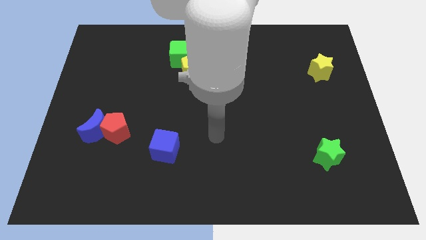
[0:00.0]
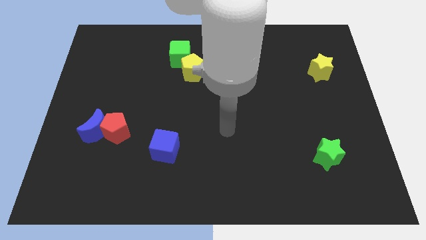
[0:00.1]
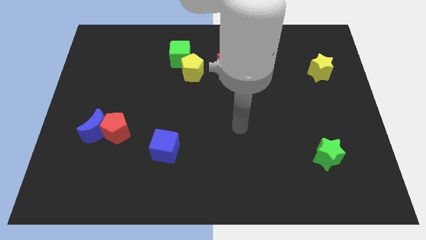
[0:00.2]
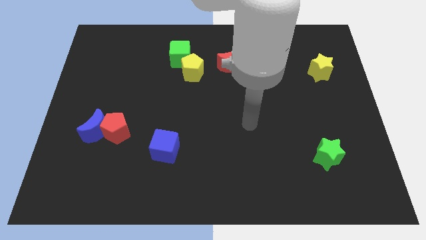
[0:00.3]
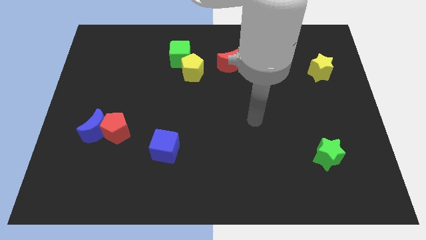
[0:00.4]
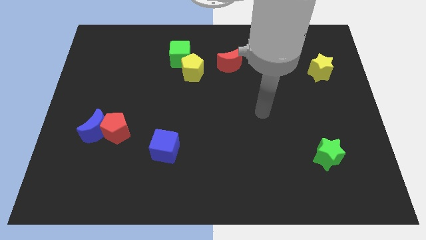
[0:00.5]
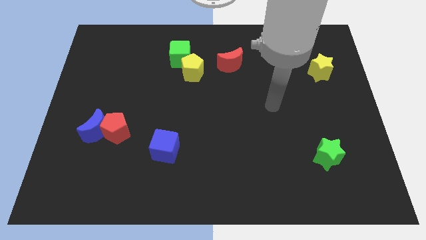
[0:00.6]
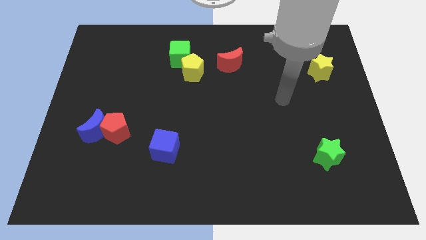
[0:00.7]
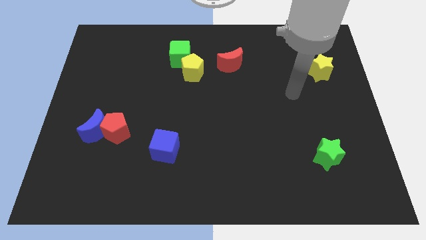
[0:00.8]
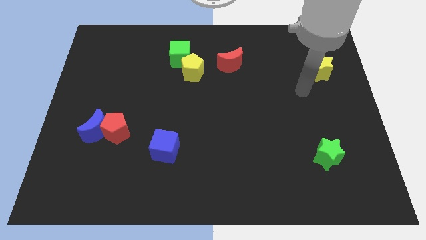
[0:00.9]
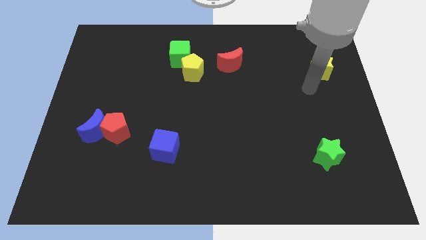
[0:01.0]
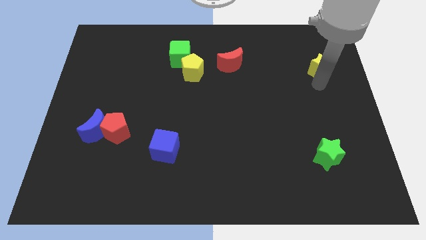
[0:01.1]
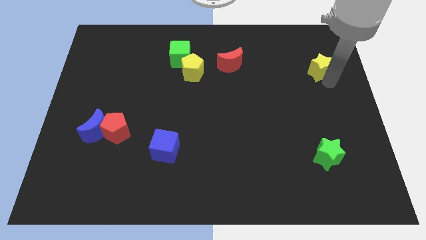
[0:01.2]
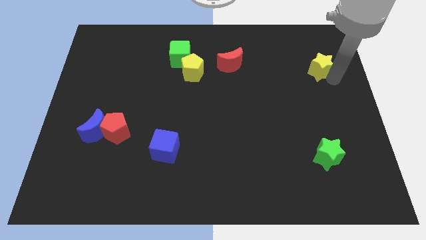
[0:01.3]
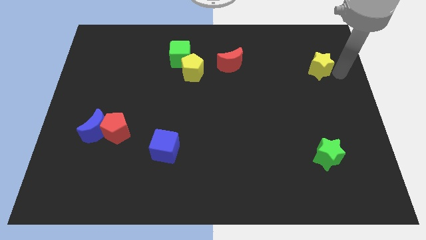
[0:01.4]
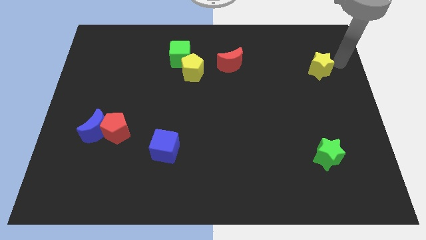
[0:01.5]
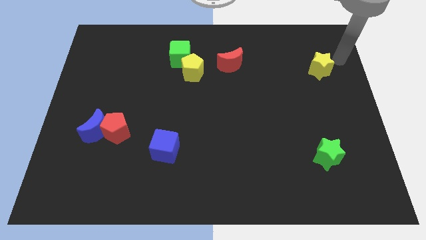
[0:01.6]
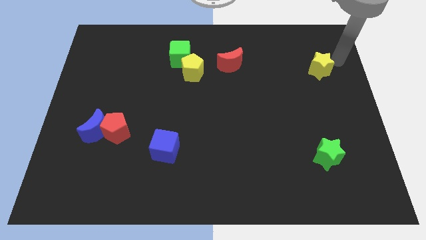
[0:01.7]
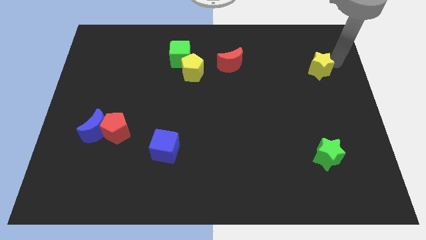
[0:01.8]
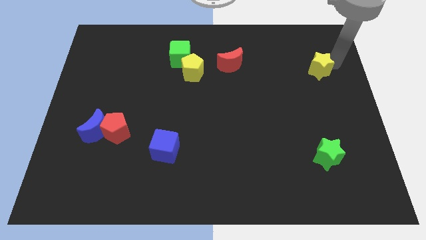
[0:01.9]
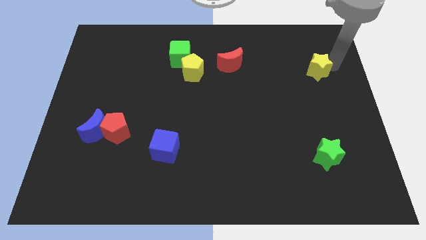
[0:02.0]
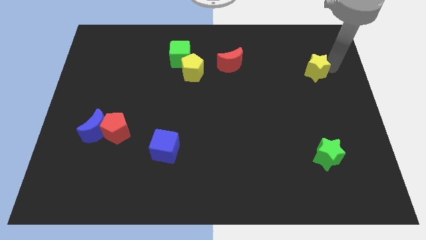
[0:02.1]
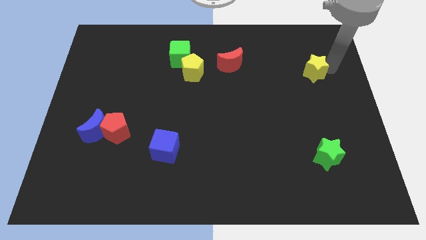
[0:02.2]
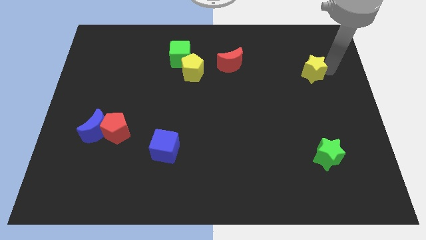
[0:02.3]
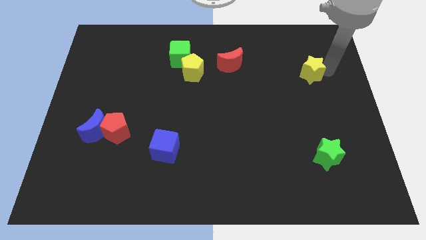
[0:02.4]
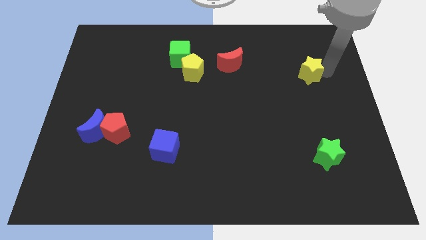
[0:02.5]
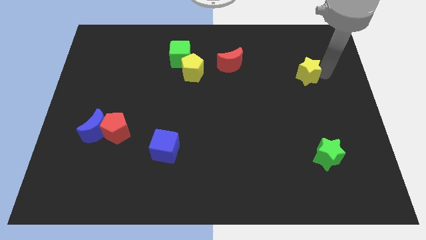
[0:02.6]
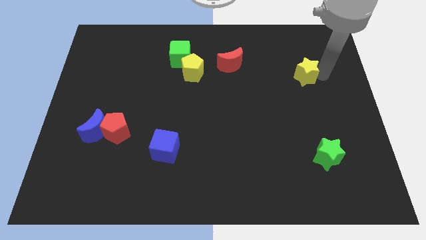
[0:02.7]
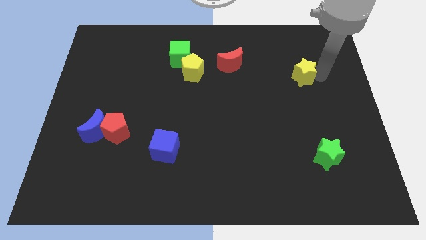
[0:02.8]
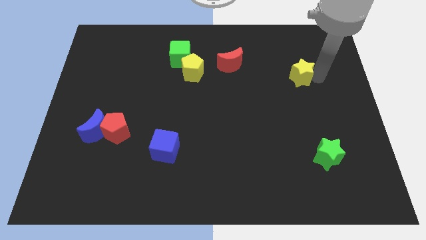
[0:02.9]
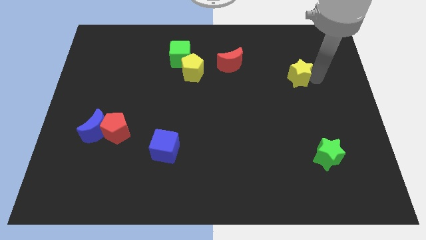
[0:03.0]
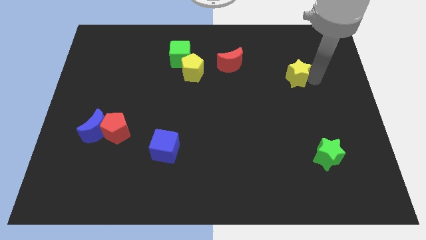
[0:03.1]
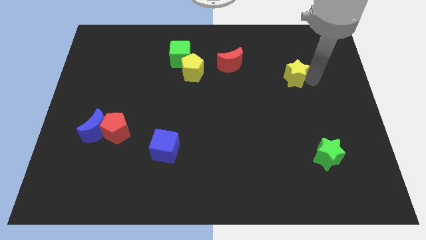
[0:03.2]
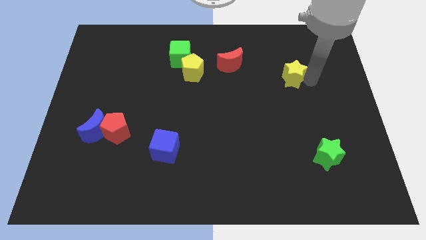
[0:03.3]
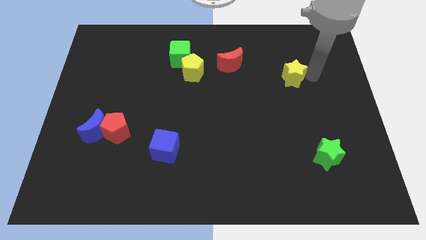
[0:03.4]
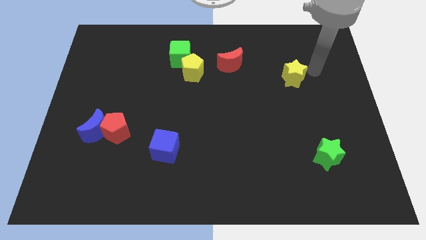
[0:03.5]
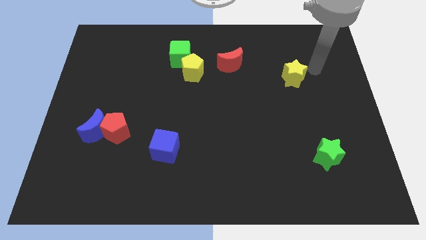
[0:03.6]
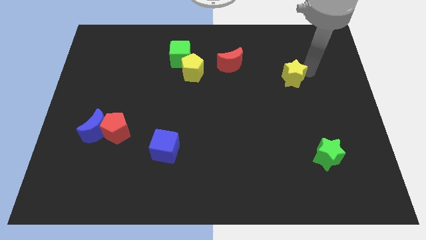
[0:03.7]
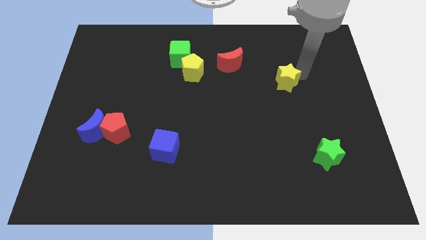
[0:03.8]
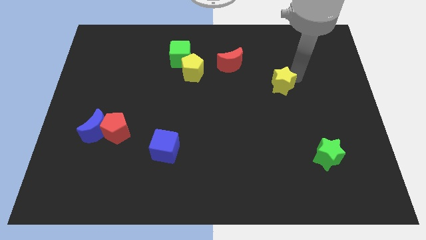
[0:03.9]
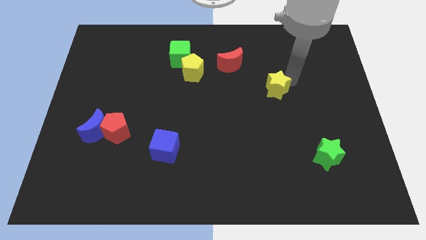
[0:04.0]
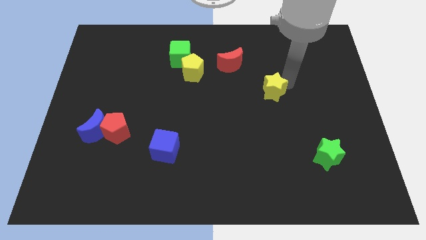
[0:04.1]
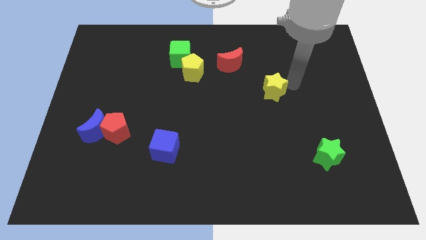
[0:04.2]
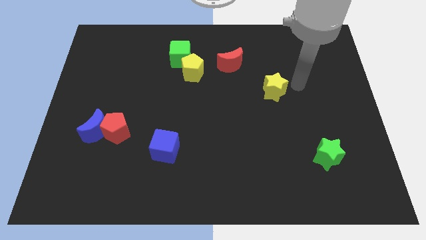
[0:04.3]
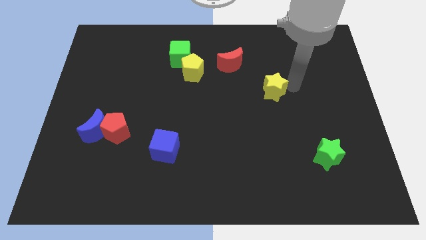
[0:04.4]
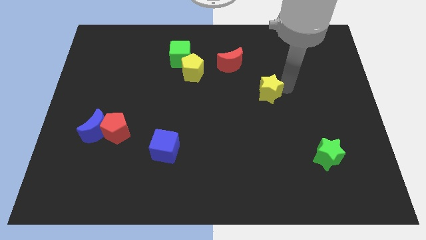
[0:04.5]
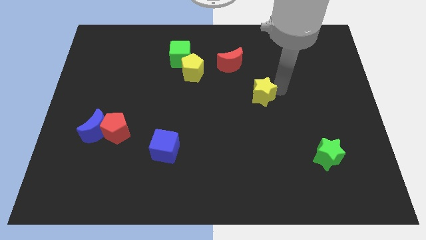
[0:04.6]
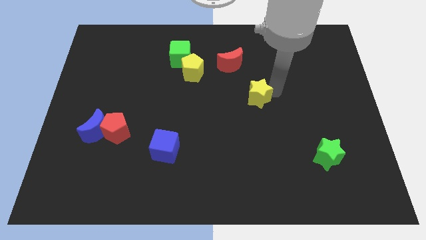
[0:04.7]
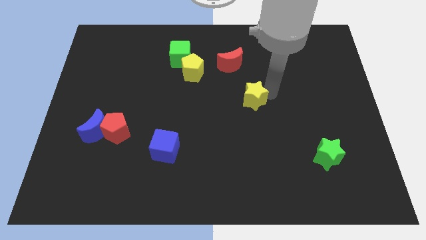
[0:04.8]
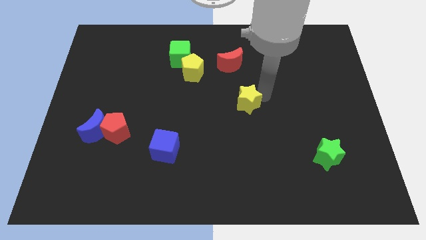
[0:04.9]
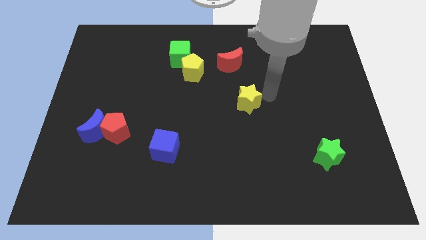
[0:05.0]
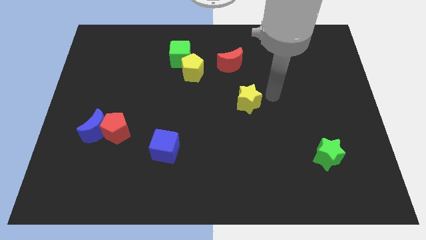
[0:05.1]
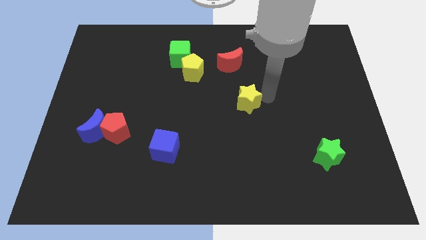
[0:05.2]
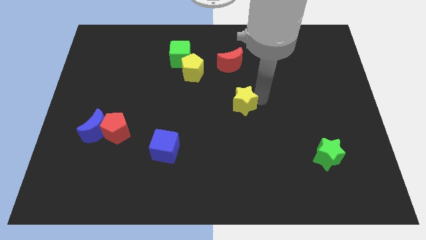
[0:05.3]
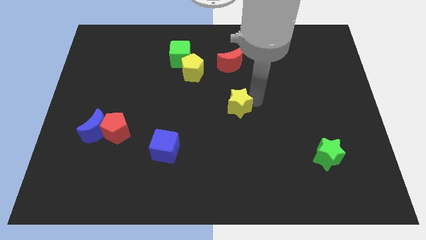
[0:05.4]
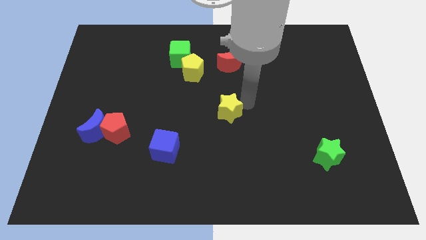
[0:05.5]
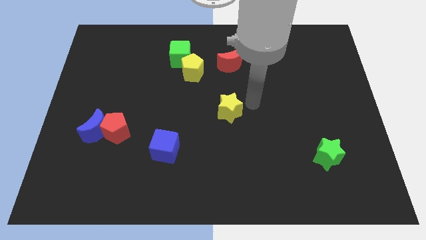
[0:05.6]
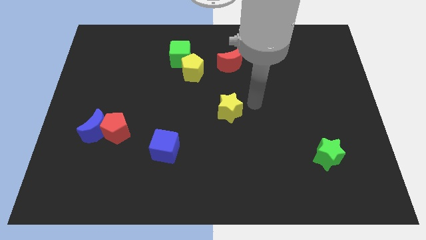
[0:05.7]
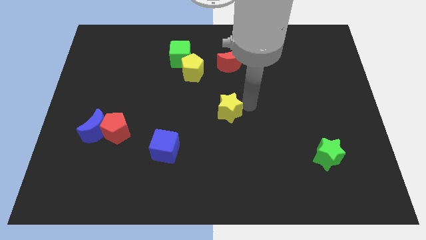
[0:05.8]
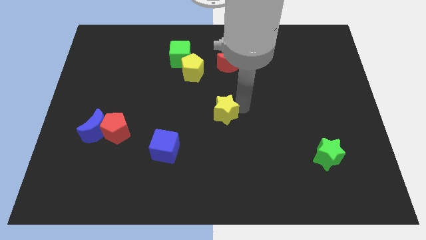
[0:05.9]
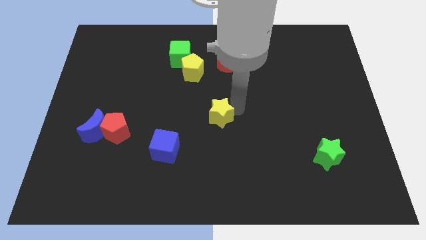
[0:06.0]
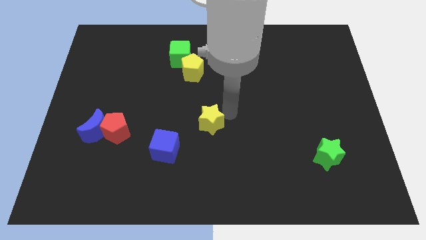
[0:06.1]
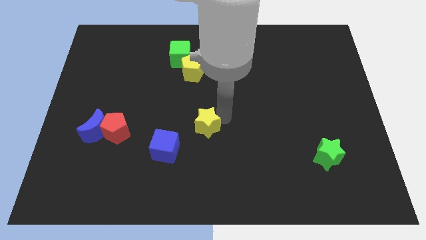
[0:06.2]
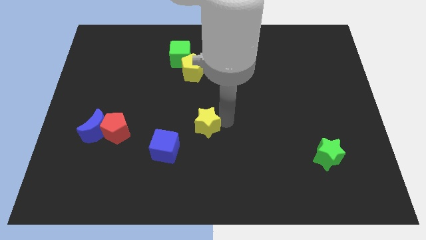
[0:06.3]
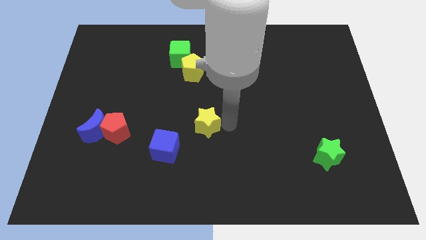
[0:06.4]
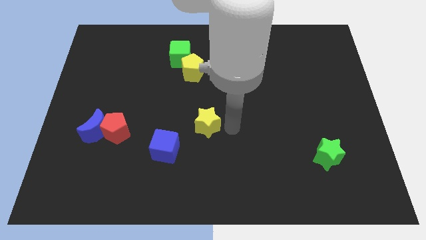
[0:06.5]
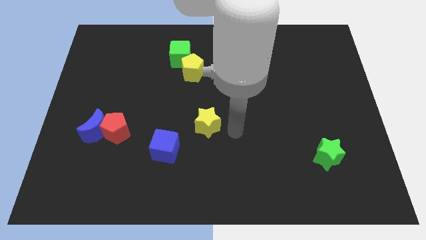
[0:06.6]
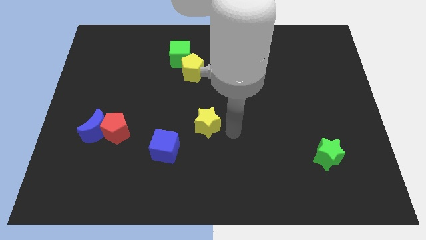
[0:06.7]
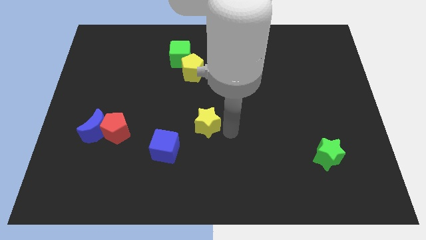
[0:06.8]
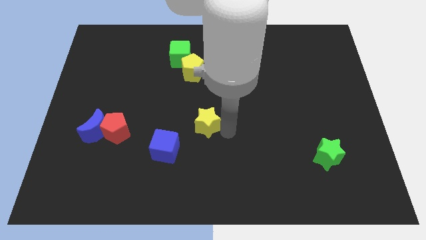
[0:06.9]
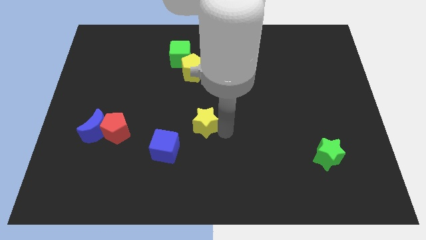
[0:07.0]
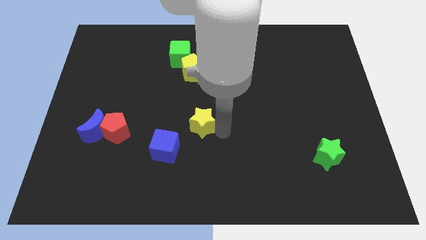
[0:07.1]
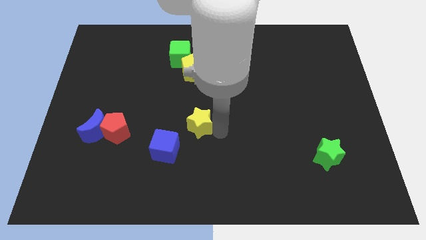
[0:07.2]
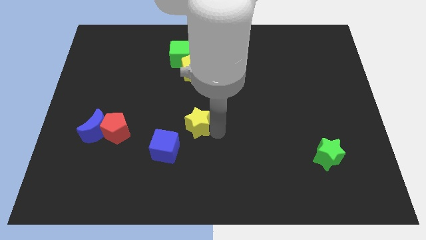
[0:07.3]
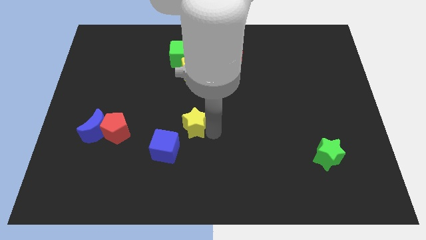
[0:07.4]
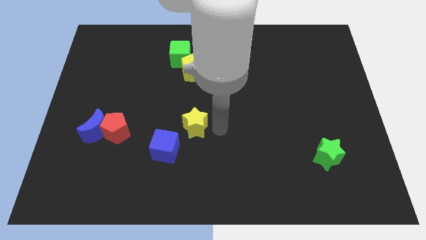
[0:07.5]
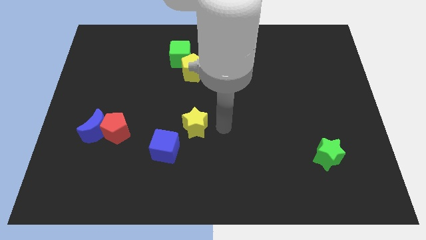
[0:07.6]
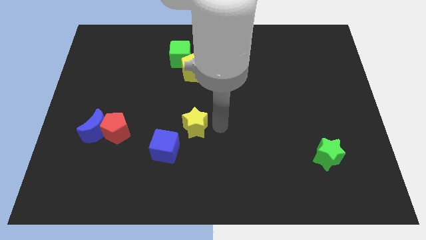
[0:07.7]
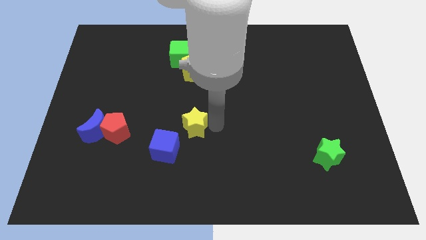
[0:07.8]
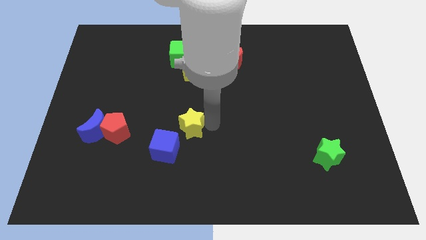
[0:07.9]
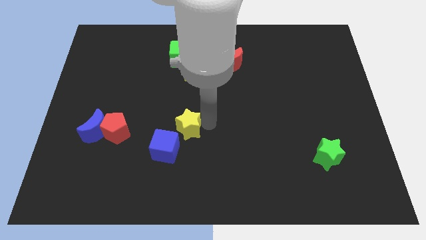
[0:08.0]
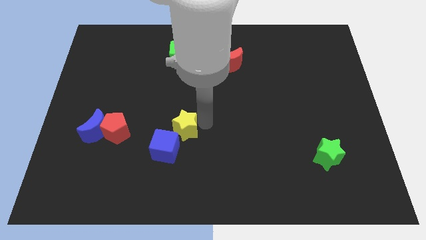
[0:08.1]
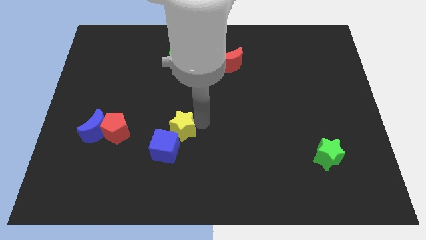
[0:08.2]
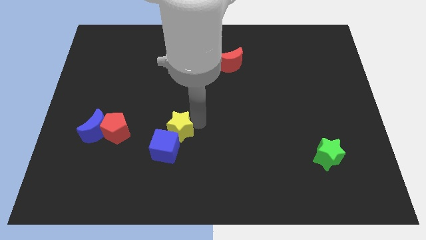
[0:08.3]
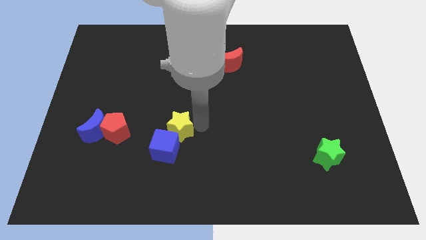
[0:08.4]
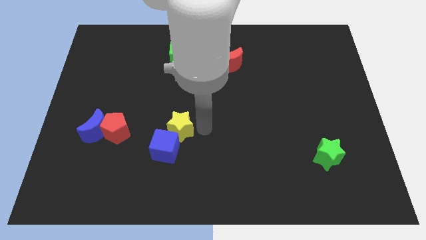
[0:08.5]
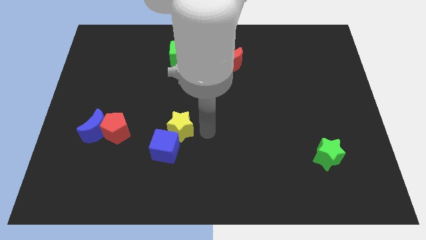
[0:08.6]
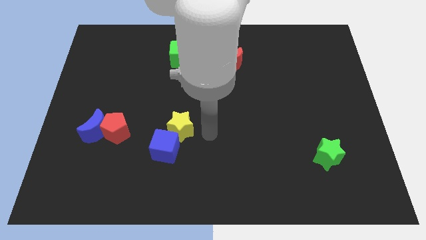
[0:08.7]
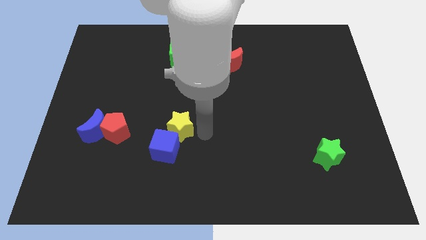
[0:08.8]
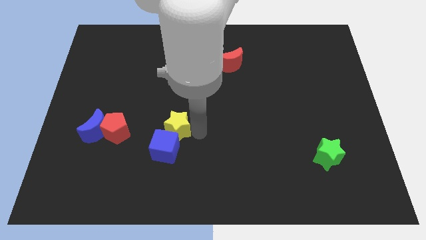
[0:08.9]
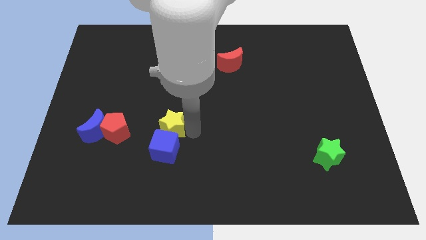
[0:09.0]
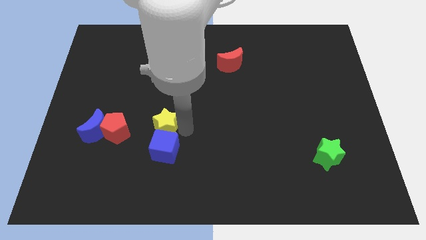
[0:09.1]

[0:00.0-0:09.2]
move the yellow star to the right of the blue moon
